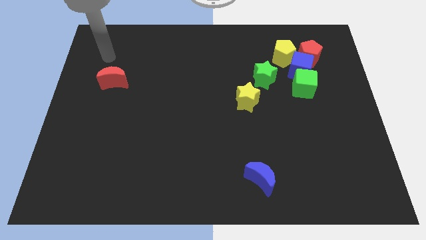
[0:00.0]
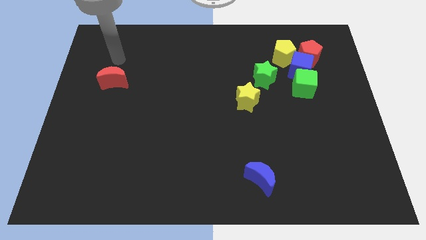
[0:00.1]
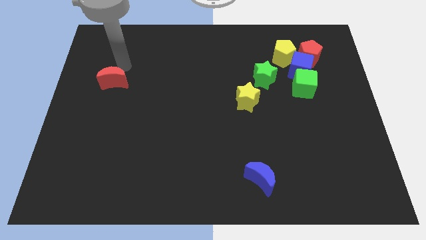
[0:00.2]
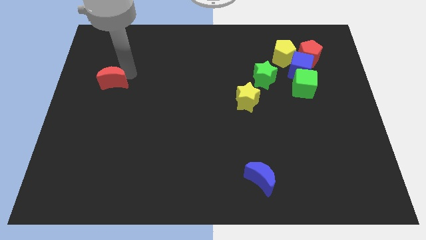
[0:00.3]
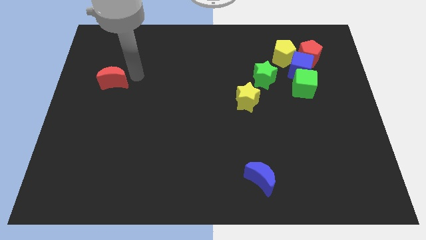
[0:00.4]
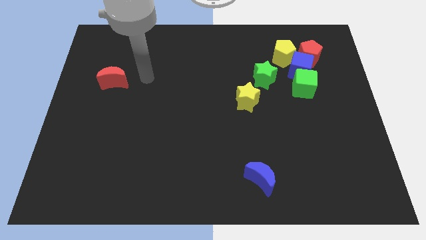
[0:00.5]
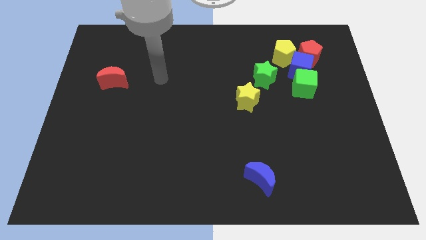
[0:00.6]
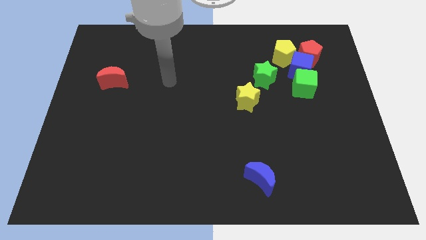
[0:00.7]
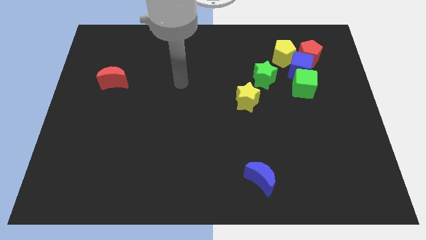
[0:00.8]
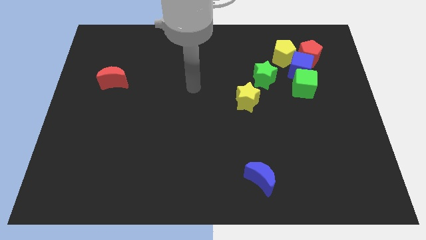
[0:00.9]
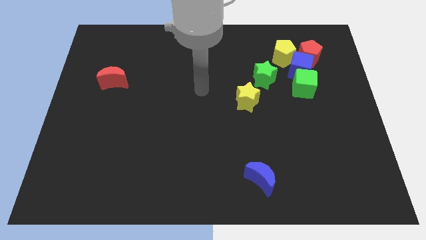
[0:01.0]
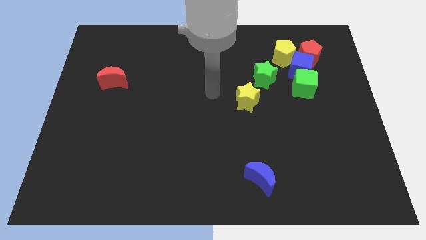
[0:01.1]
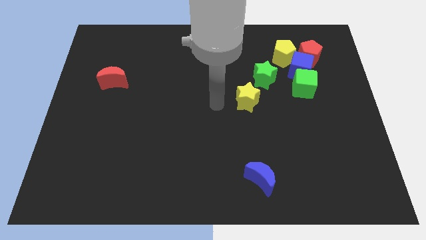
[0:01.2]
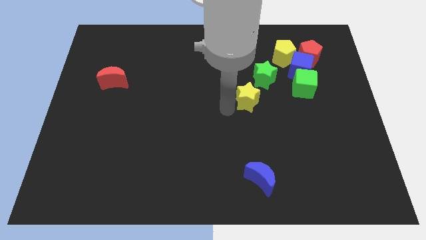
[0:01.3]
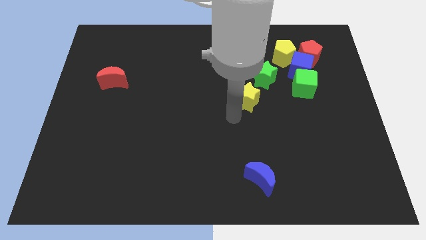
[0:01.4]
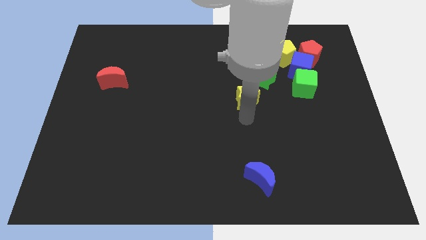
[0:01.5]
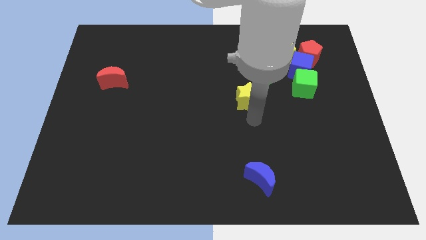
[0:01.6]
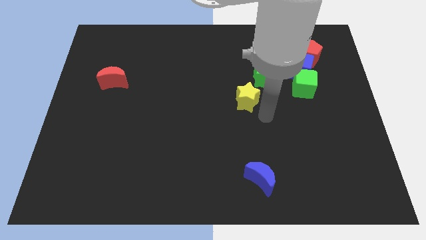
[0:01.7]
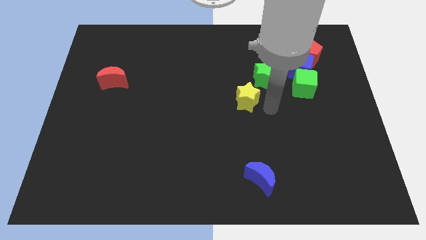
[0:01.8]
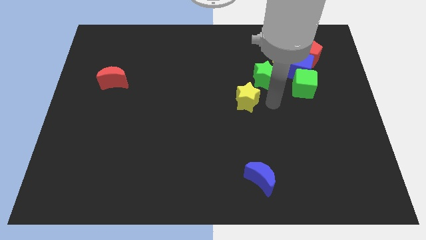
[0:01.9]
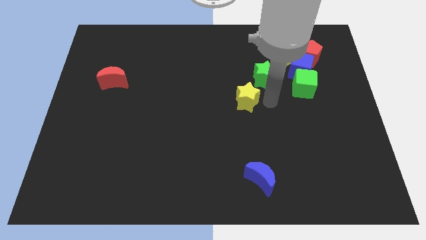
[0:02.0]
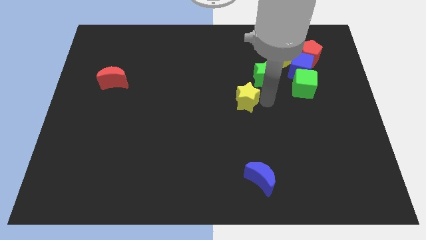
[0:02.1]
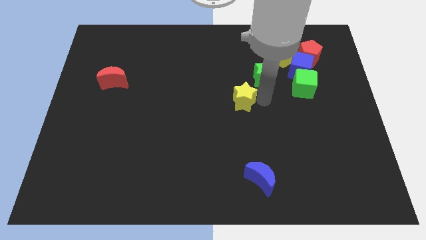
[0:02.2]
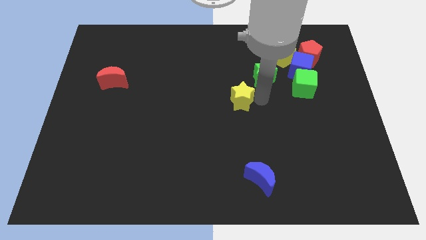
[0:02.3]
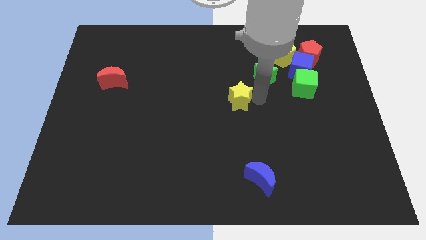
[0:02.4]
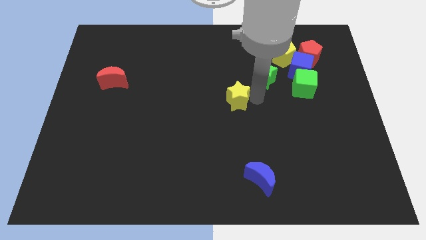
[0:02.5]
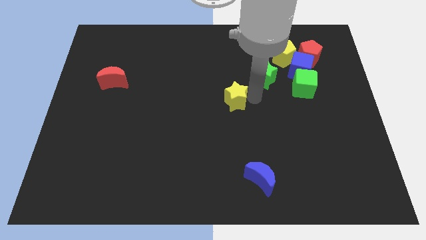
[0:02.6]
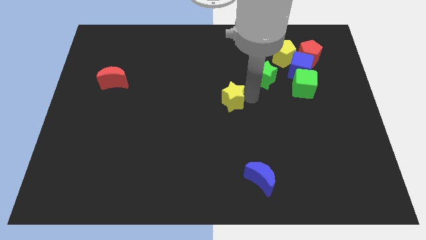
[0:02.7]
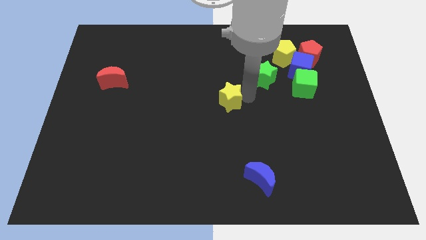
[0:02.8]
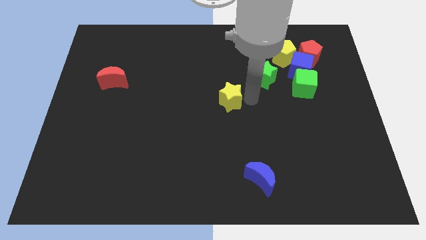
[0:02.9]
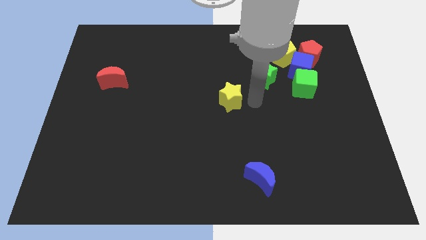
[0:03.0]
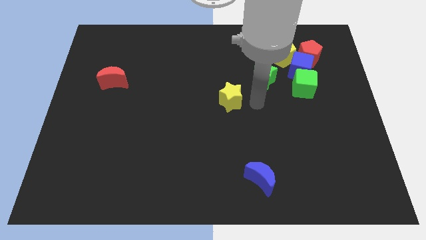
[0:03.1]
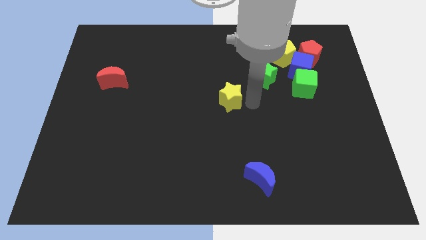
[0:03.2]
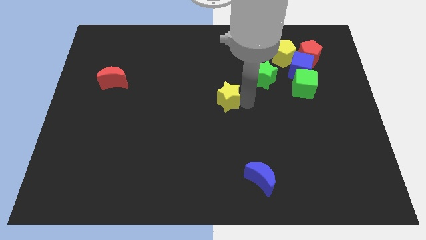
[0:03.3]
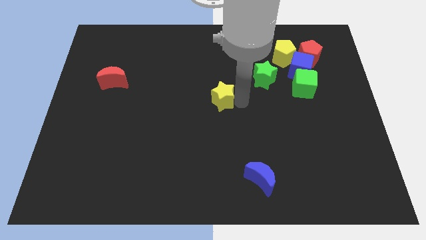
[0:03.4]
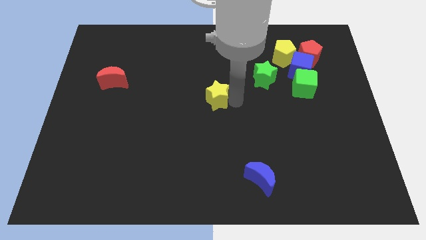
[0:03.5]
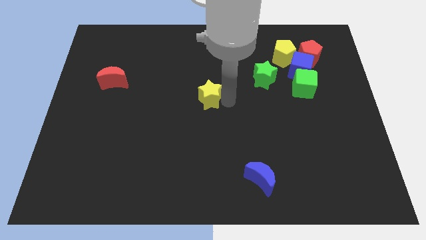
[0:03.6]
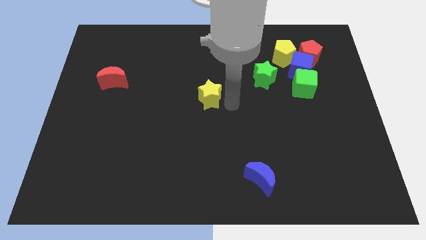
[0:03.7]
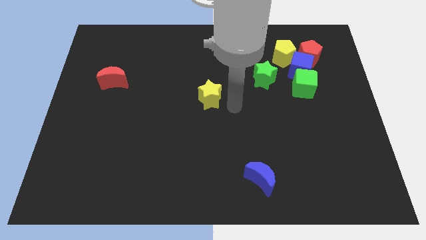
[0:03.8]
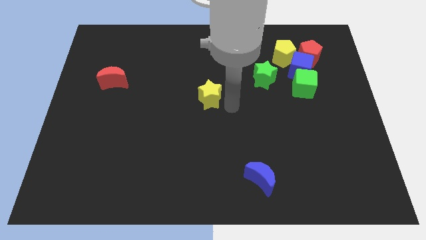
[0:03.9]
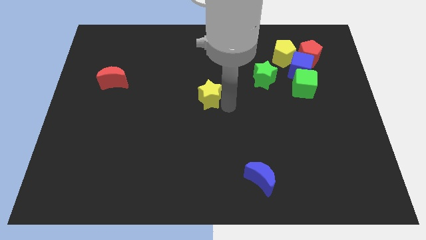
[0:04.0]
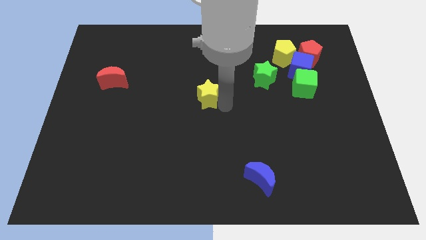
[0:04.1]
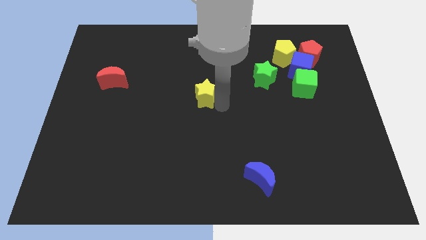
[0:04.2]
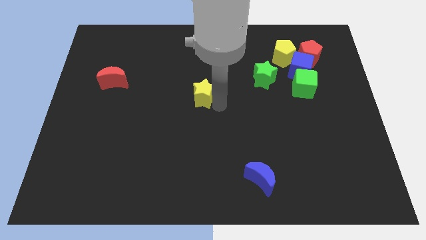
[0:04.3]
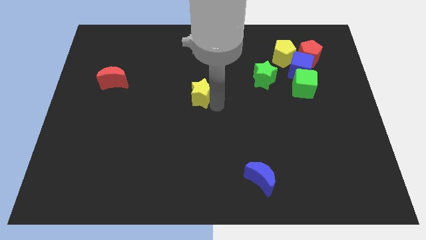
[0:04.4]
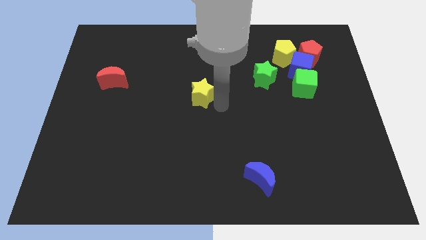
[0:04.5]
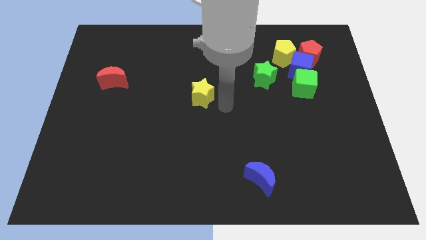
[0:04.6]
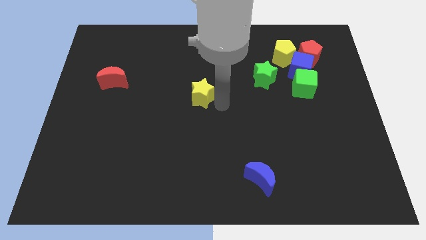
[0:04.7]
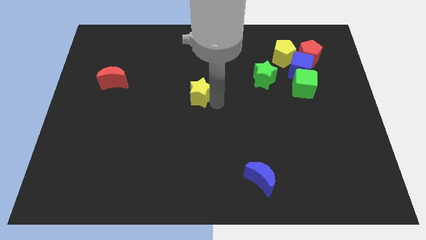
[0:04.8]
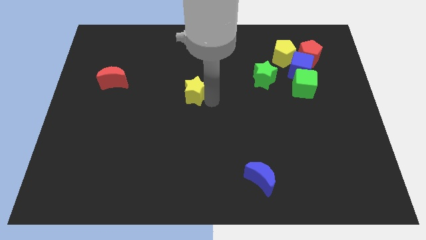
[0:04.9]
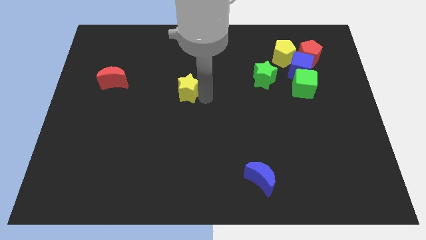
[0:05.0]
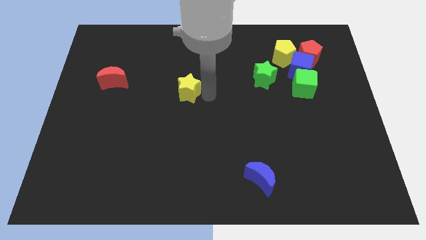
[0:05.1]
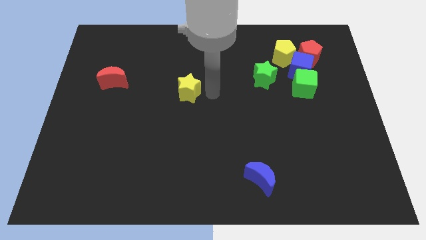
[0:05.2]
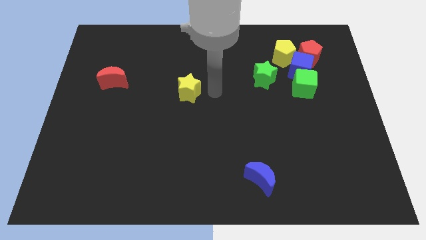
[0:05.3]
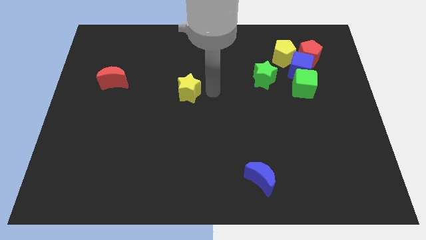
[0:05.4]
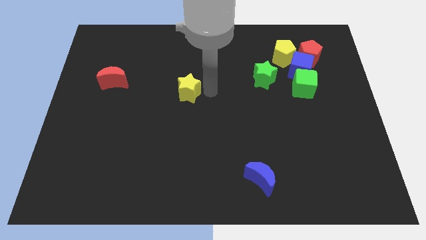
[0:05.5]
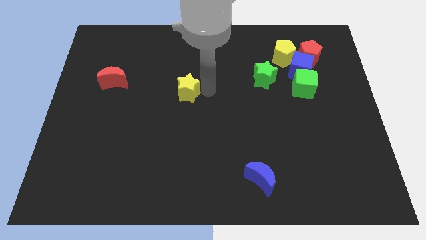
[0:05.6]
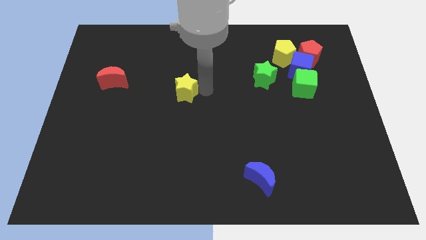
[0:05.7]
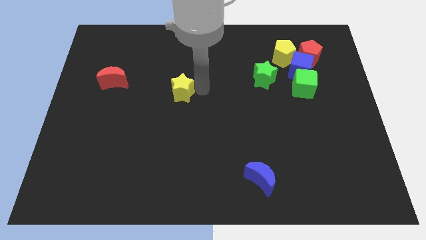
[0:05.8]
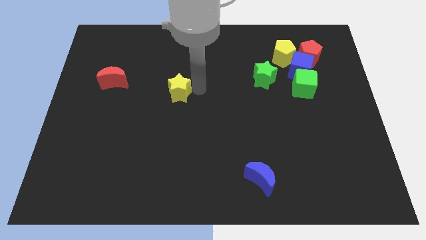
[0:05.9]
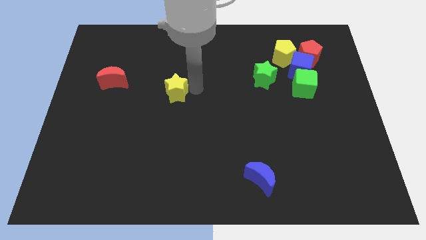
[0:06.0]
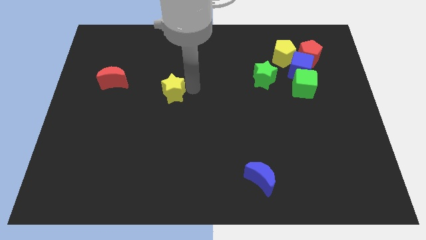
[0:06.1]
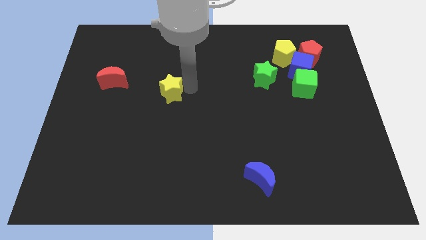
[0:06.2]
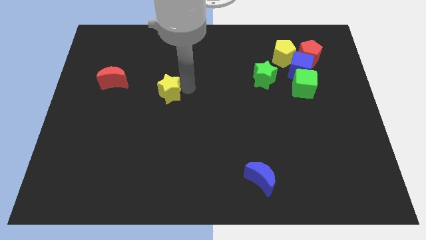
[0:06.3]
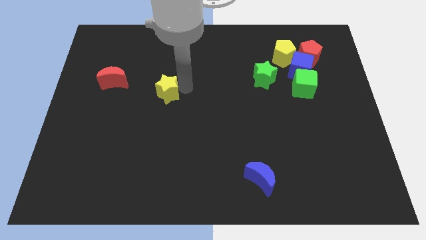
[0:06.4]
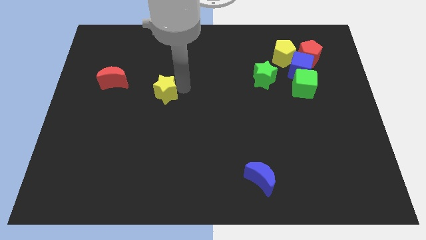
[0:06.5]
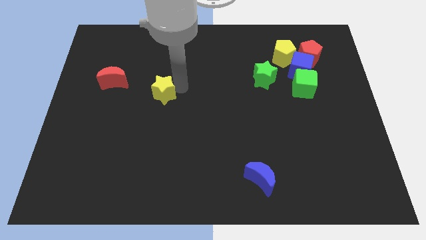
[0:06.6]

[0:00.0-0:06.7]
push the yellow star to the left

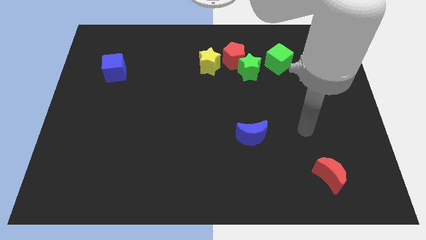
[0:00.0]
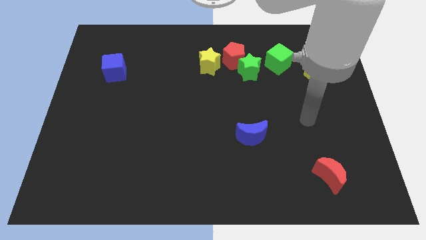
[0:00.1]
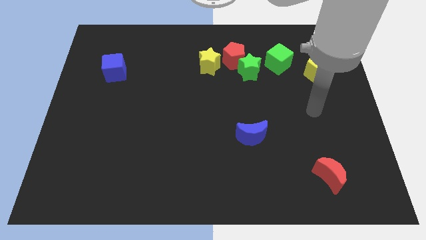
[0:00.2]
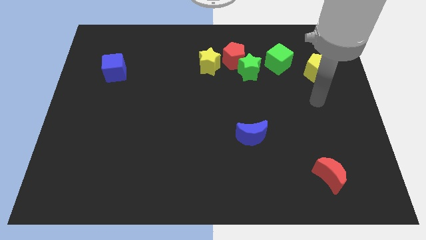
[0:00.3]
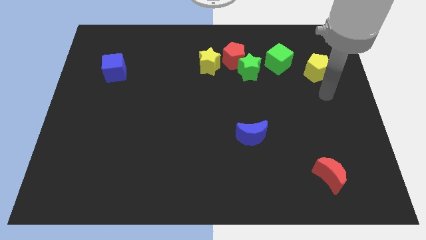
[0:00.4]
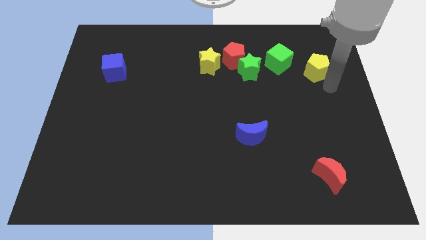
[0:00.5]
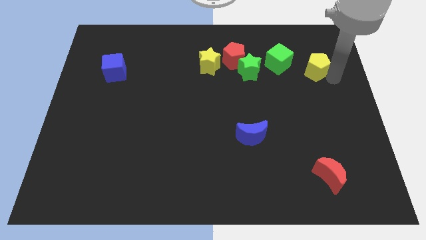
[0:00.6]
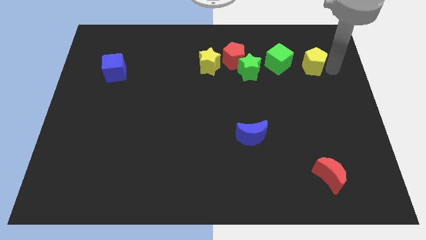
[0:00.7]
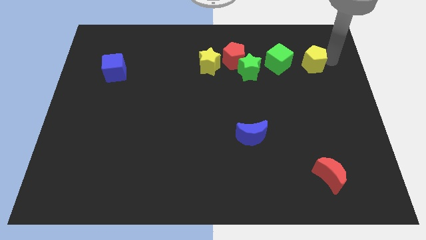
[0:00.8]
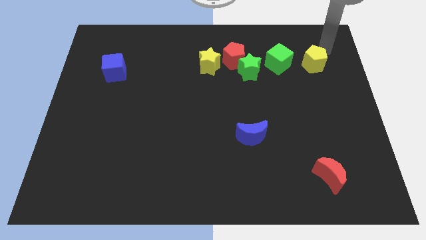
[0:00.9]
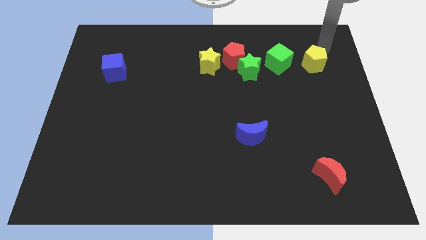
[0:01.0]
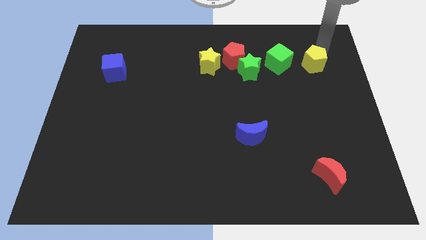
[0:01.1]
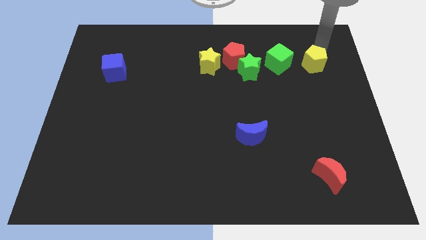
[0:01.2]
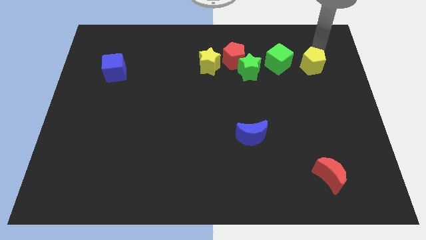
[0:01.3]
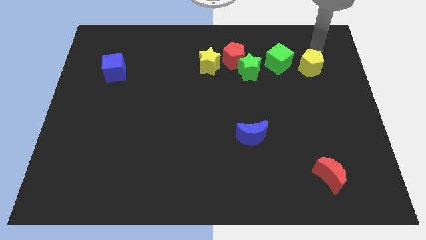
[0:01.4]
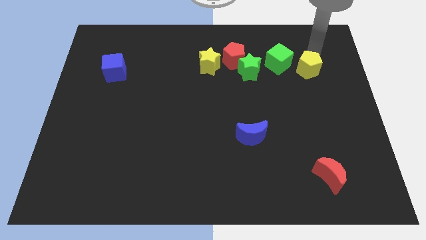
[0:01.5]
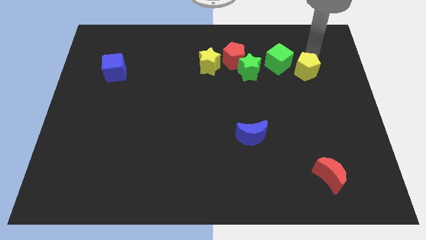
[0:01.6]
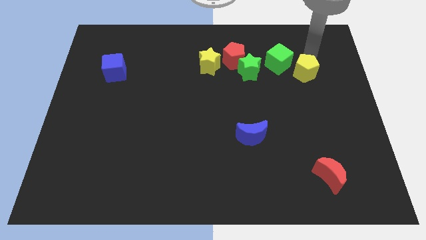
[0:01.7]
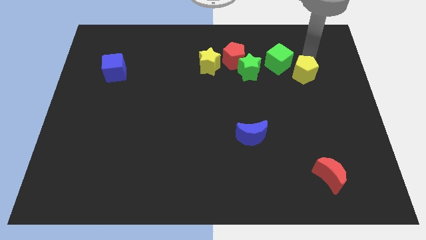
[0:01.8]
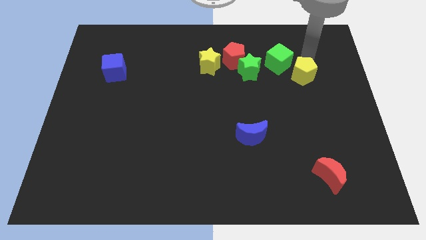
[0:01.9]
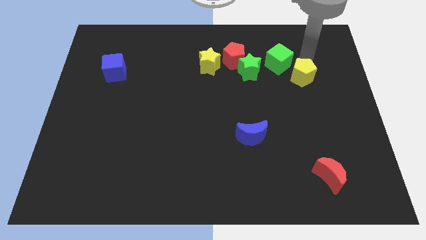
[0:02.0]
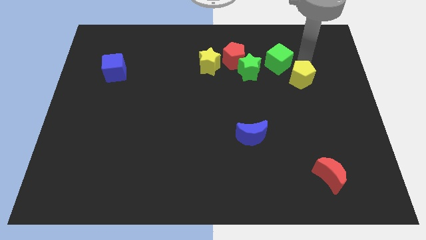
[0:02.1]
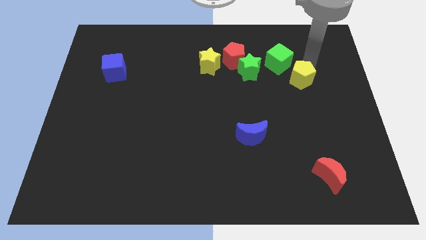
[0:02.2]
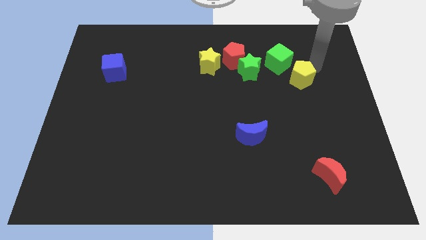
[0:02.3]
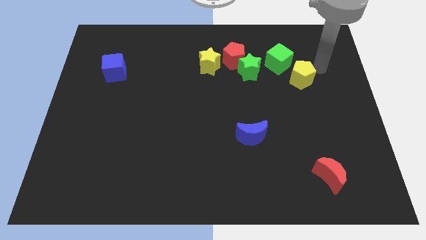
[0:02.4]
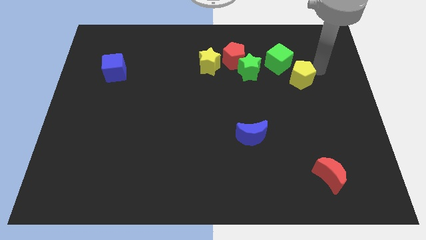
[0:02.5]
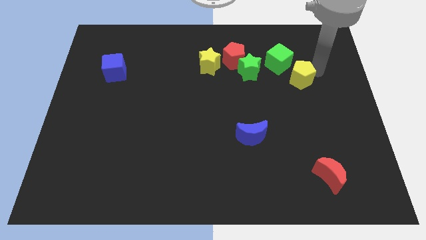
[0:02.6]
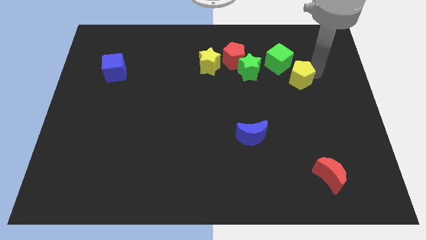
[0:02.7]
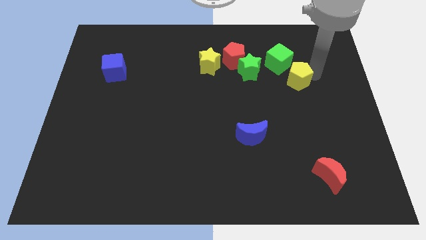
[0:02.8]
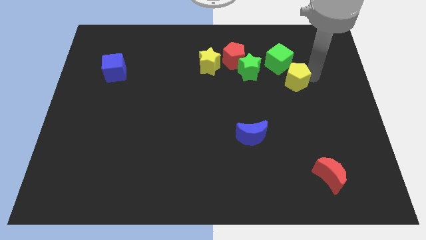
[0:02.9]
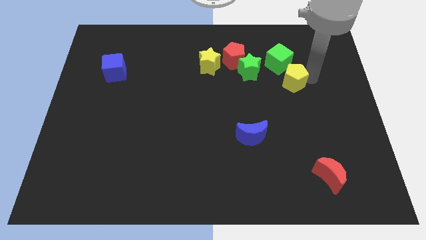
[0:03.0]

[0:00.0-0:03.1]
slide the yellow pentagon down and then left slightly
